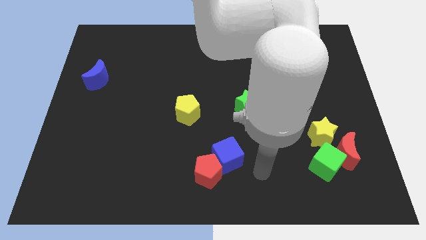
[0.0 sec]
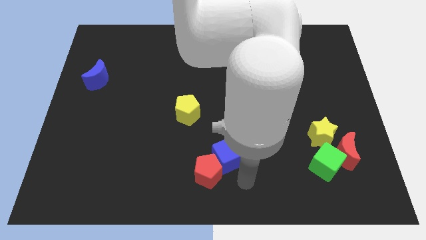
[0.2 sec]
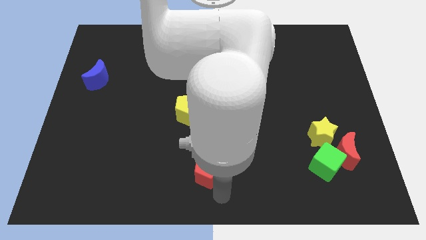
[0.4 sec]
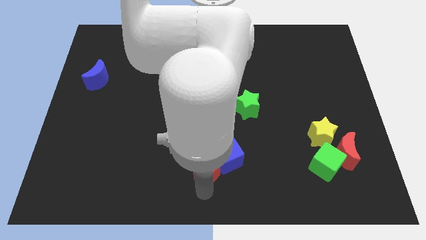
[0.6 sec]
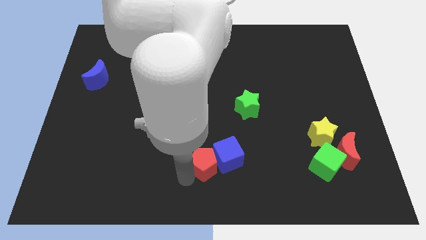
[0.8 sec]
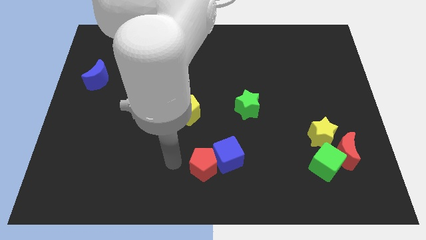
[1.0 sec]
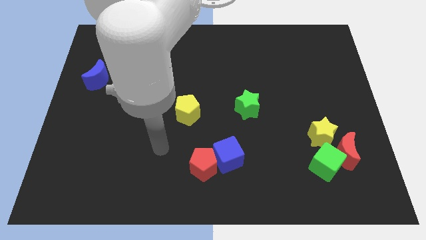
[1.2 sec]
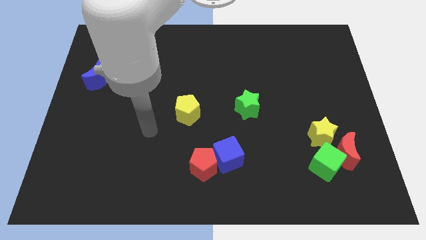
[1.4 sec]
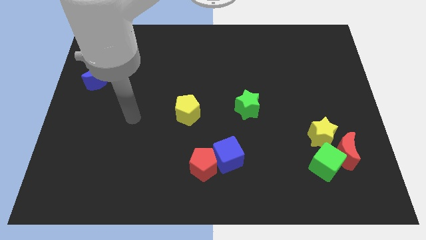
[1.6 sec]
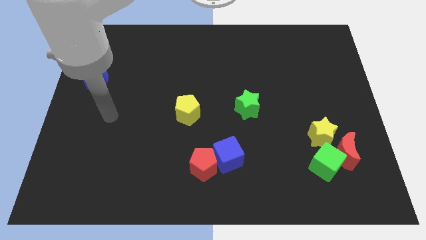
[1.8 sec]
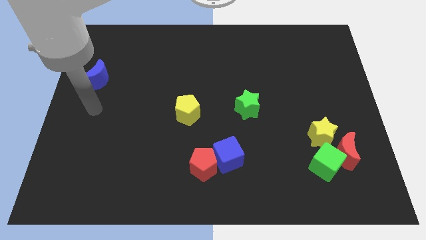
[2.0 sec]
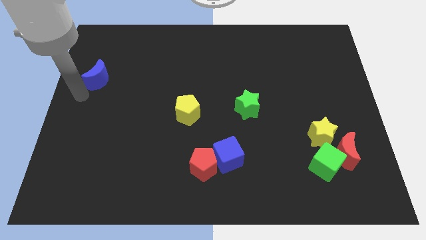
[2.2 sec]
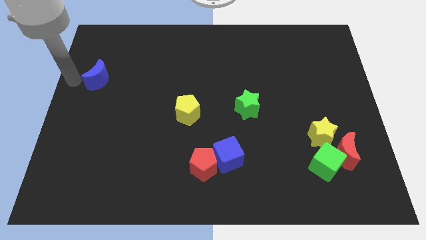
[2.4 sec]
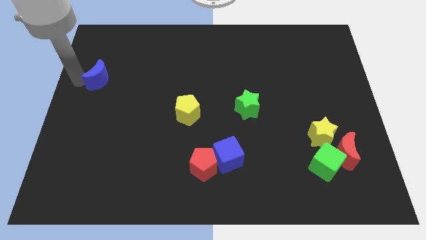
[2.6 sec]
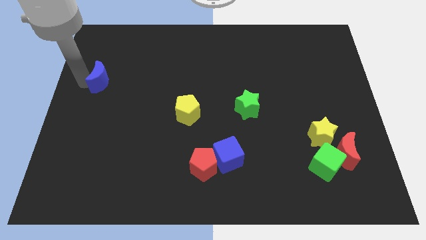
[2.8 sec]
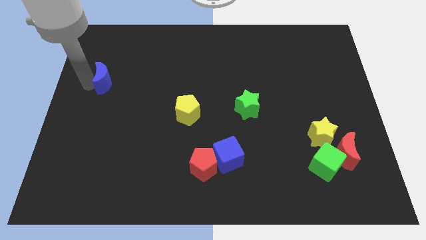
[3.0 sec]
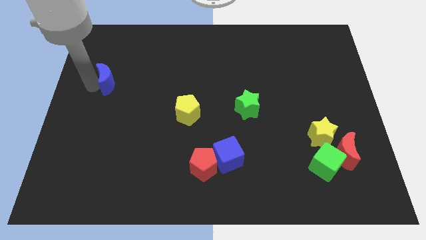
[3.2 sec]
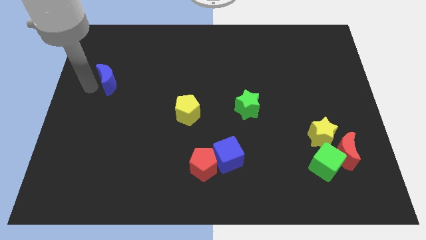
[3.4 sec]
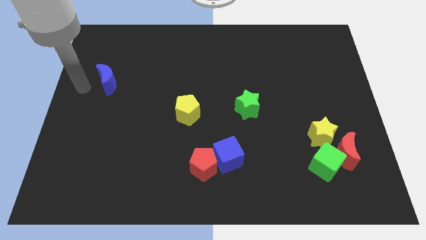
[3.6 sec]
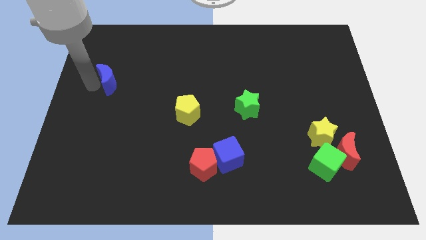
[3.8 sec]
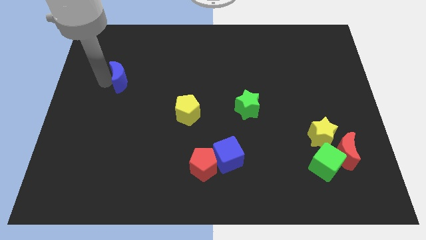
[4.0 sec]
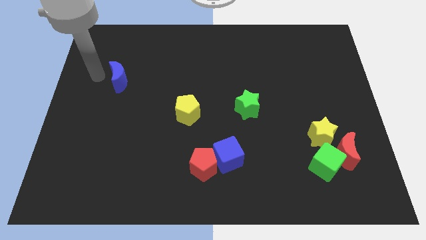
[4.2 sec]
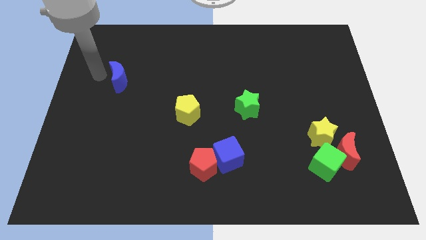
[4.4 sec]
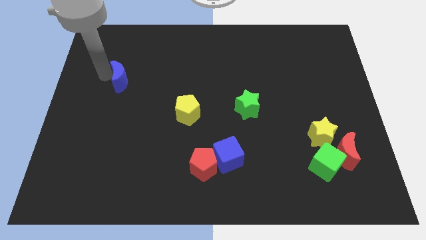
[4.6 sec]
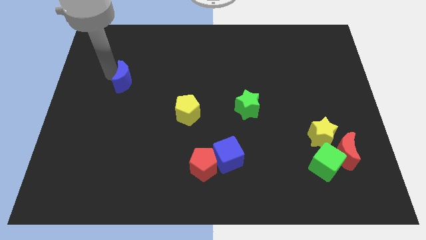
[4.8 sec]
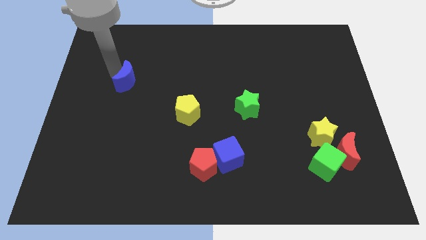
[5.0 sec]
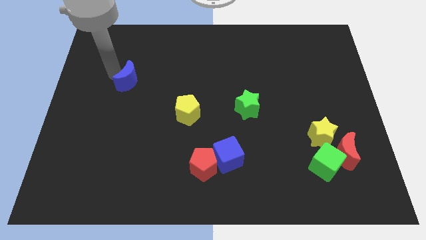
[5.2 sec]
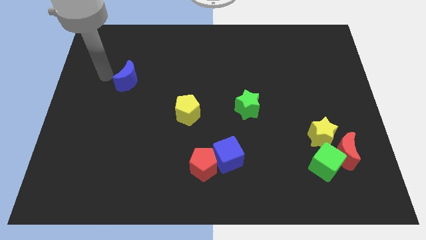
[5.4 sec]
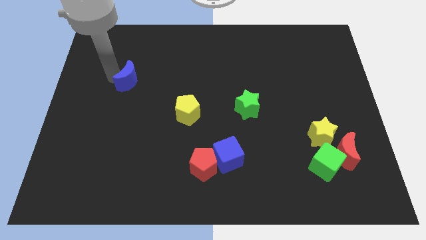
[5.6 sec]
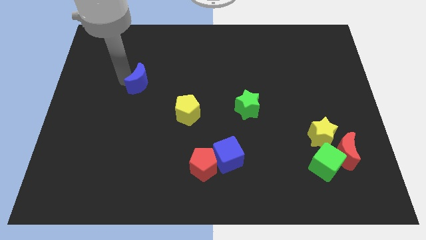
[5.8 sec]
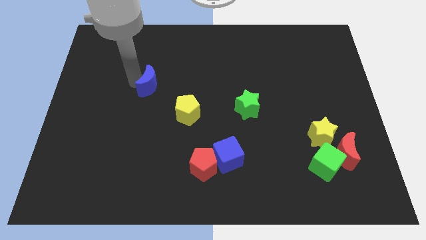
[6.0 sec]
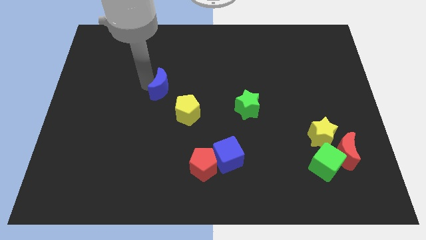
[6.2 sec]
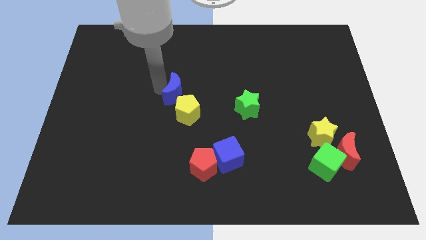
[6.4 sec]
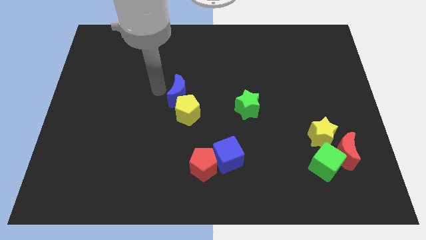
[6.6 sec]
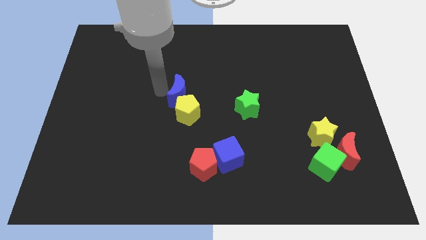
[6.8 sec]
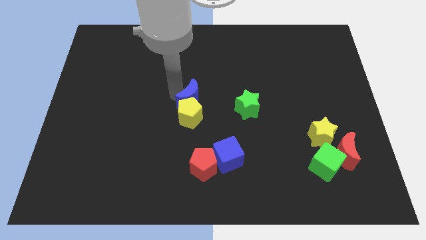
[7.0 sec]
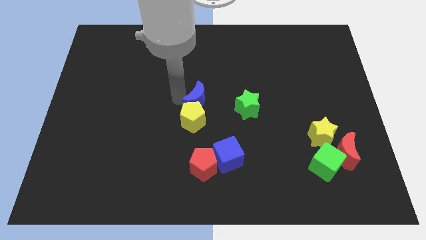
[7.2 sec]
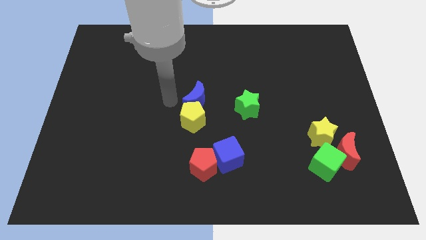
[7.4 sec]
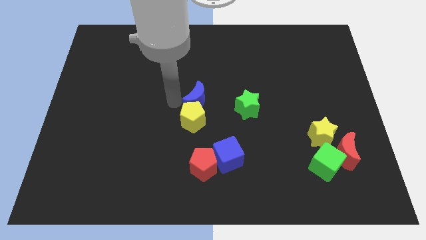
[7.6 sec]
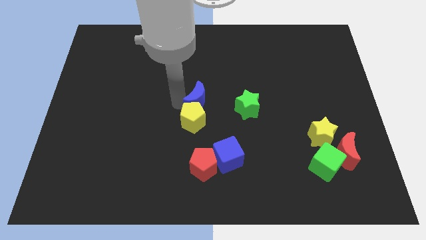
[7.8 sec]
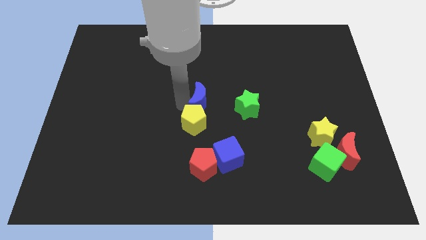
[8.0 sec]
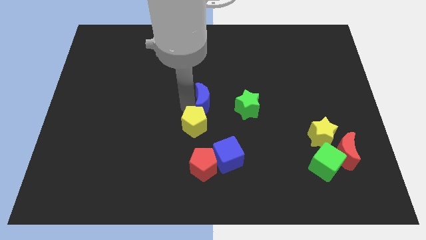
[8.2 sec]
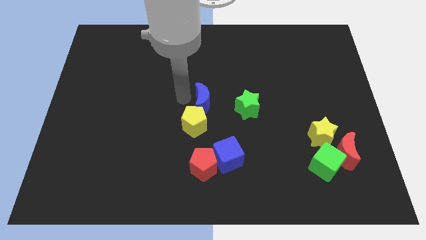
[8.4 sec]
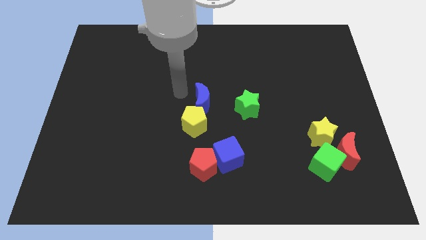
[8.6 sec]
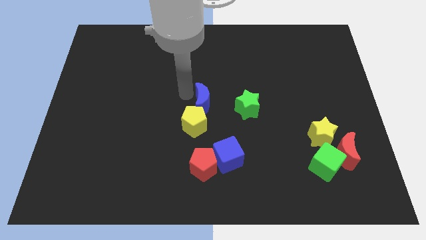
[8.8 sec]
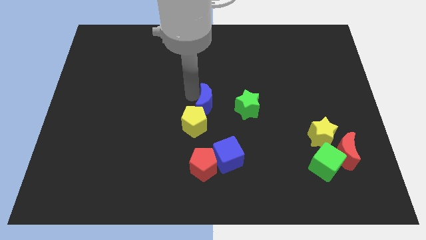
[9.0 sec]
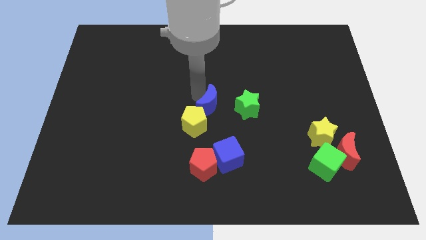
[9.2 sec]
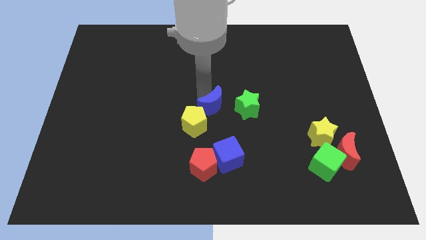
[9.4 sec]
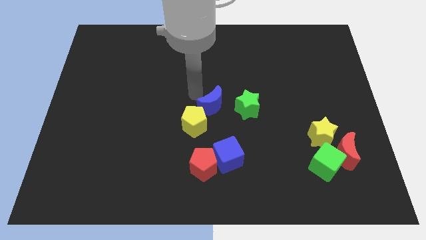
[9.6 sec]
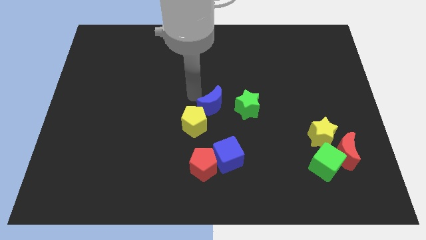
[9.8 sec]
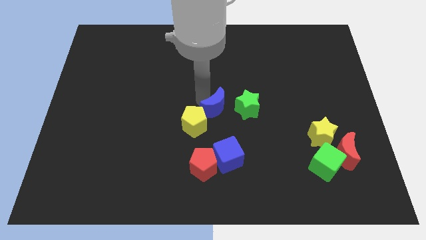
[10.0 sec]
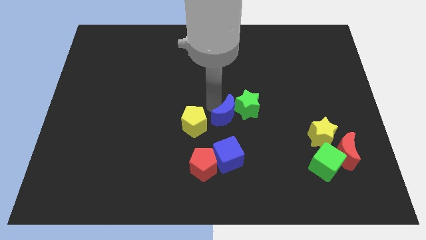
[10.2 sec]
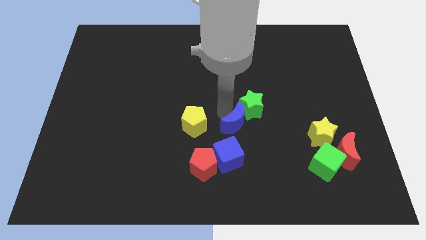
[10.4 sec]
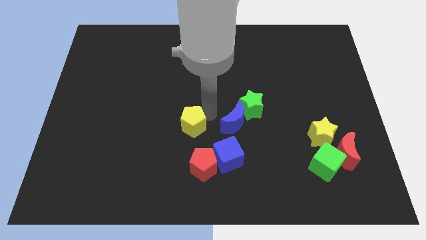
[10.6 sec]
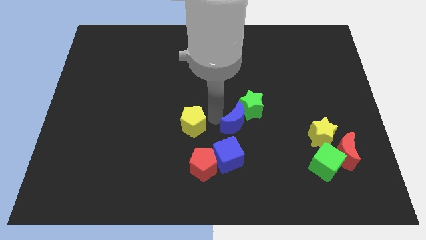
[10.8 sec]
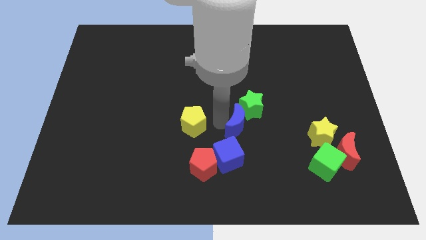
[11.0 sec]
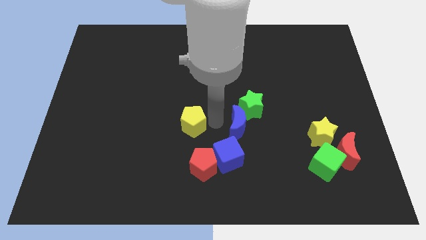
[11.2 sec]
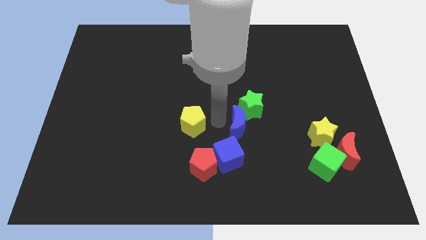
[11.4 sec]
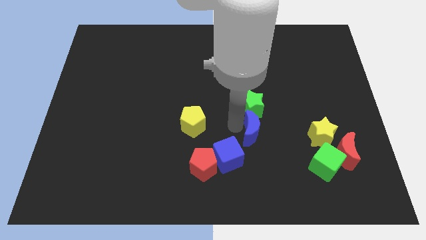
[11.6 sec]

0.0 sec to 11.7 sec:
put the blue moon left of the yellow star

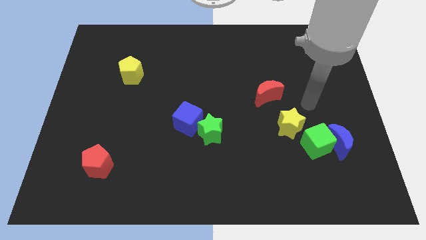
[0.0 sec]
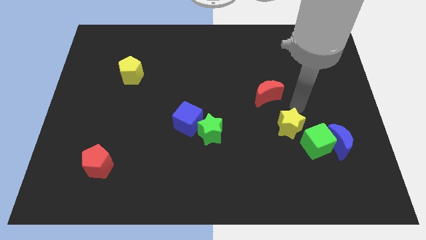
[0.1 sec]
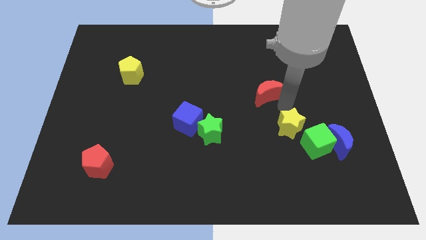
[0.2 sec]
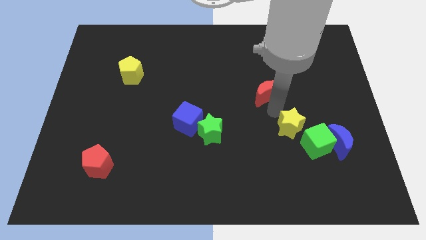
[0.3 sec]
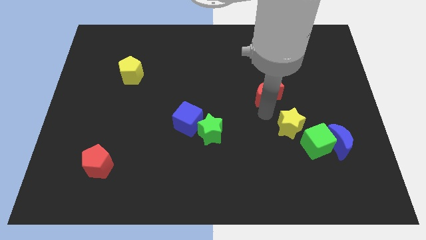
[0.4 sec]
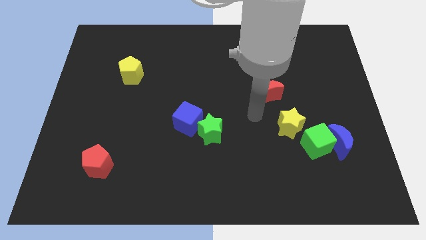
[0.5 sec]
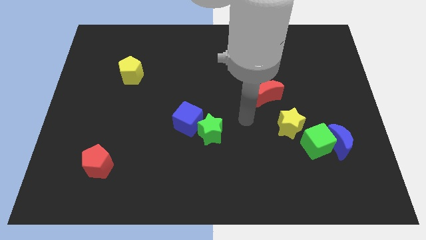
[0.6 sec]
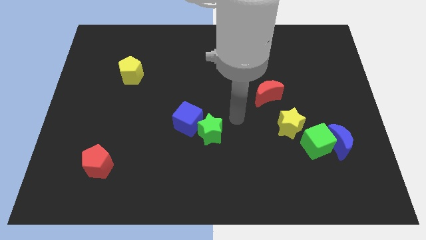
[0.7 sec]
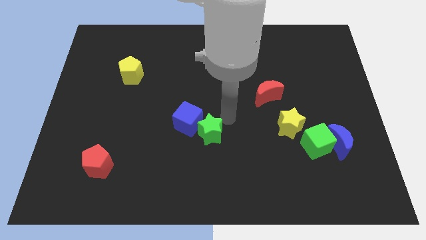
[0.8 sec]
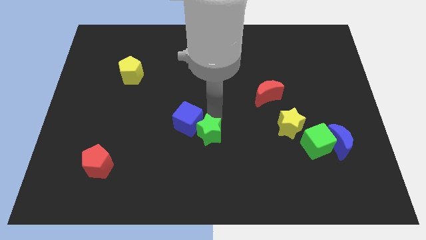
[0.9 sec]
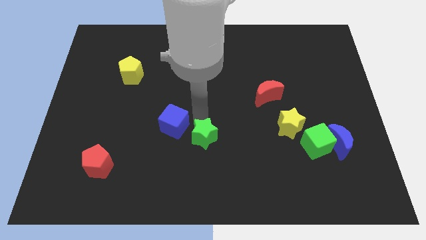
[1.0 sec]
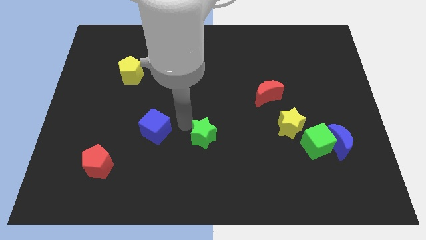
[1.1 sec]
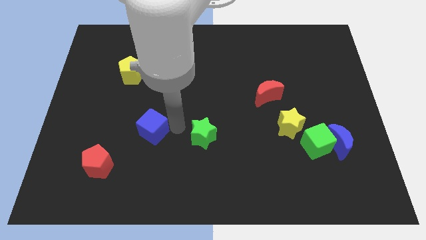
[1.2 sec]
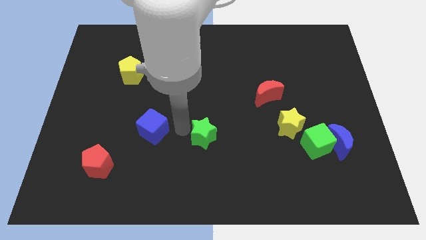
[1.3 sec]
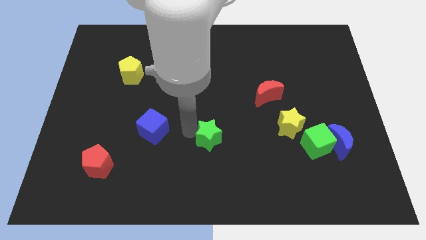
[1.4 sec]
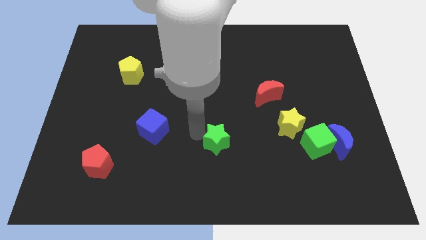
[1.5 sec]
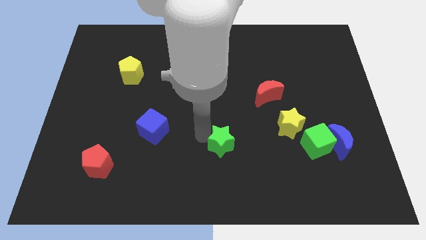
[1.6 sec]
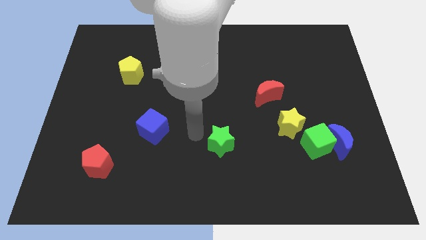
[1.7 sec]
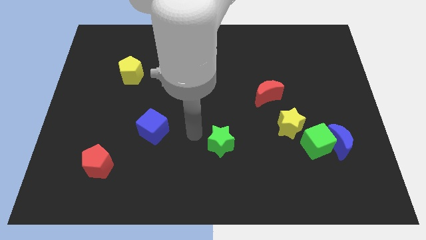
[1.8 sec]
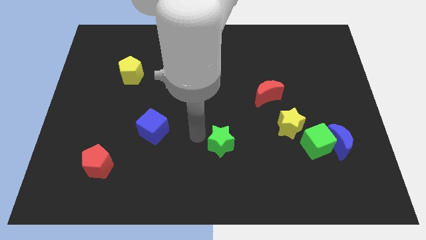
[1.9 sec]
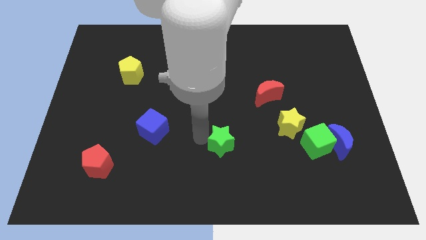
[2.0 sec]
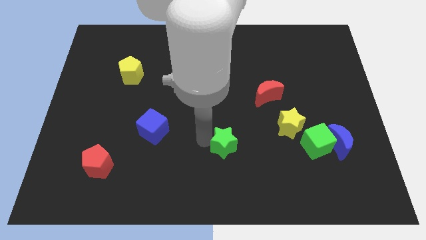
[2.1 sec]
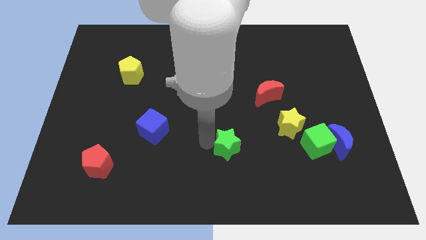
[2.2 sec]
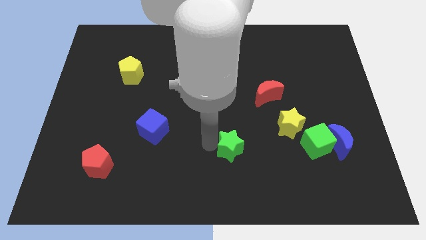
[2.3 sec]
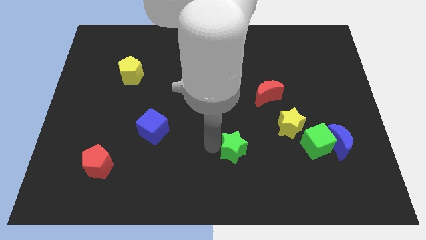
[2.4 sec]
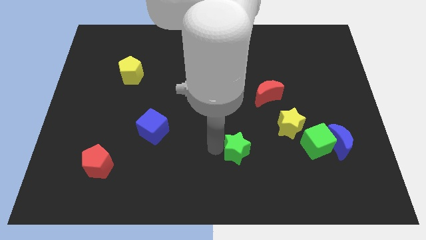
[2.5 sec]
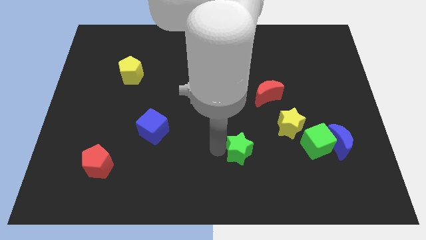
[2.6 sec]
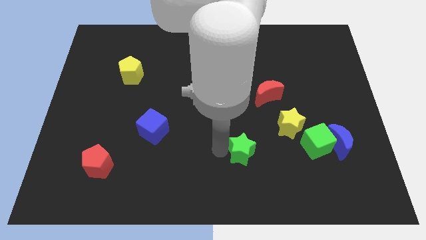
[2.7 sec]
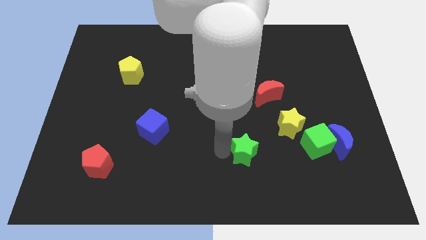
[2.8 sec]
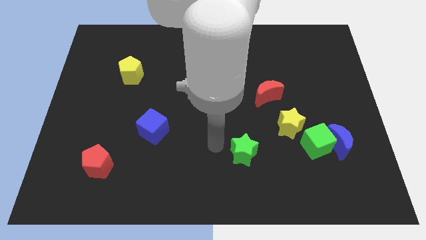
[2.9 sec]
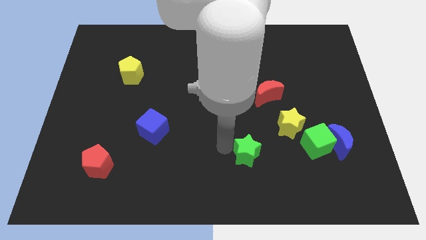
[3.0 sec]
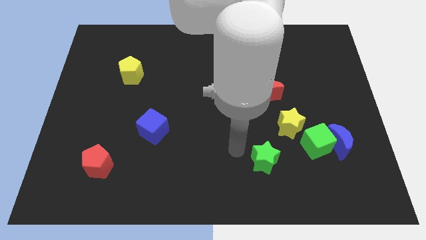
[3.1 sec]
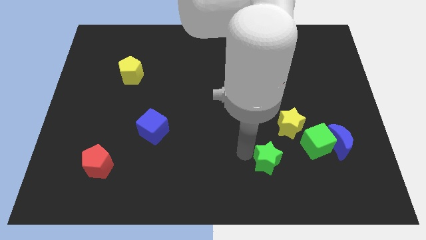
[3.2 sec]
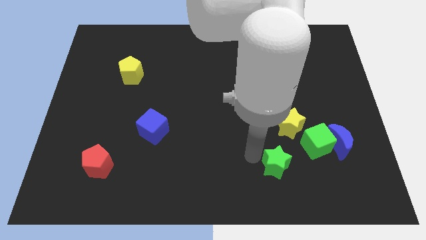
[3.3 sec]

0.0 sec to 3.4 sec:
put the green star to the bottom left side of the green cube
